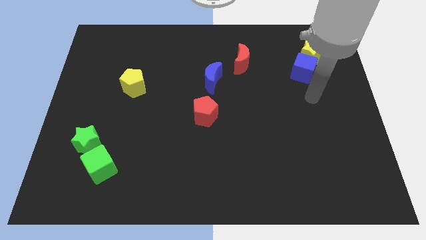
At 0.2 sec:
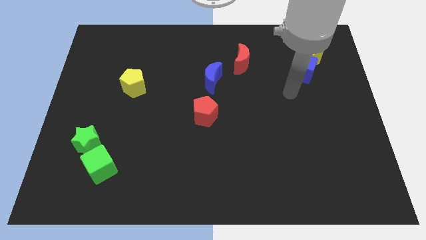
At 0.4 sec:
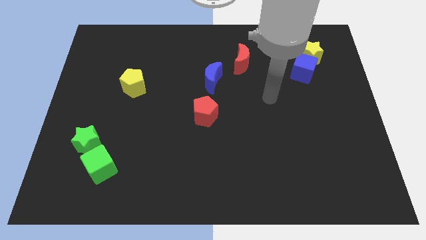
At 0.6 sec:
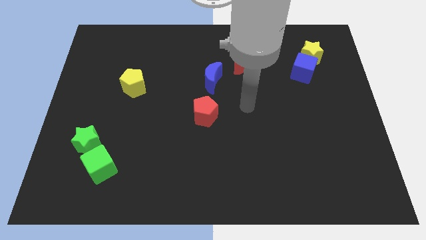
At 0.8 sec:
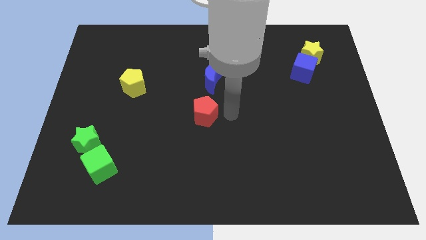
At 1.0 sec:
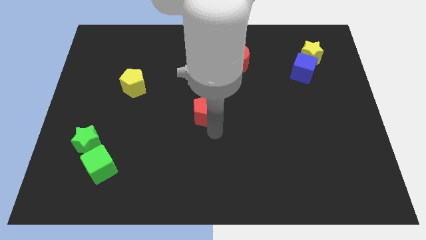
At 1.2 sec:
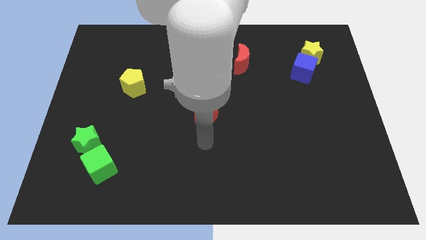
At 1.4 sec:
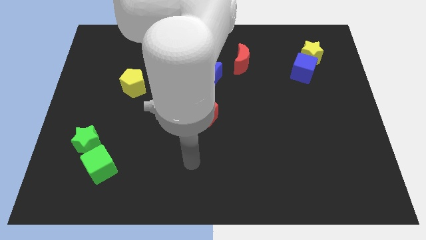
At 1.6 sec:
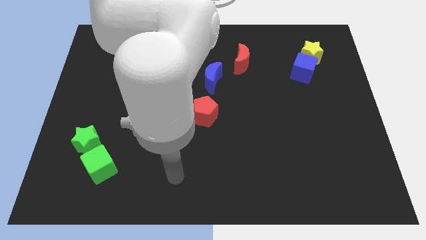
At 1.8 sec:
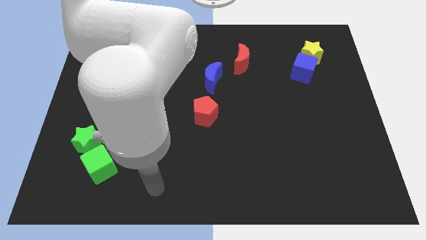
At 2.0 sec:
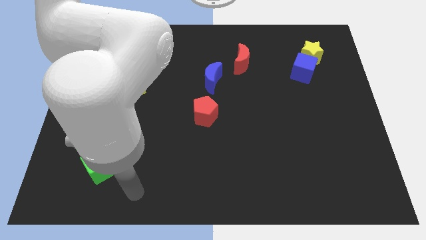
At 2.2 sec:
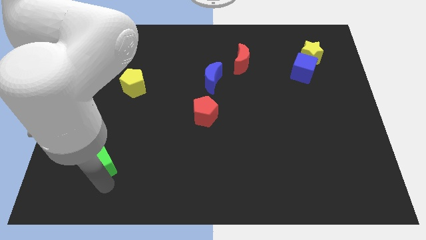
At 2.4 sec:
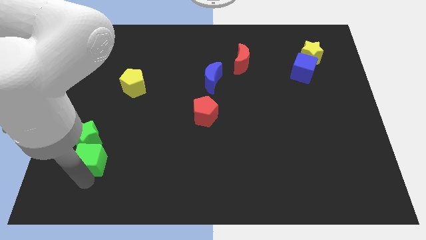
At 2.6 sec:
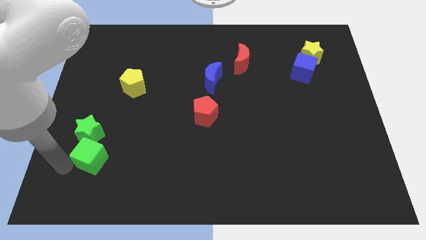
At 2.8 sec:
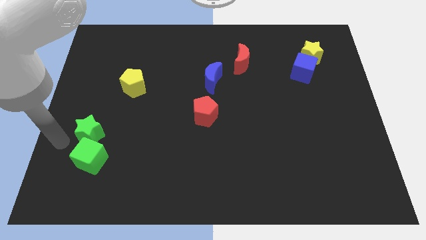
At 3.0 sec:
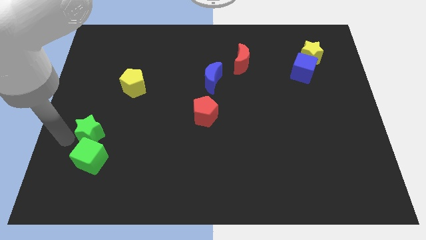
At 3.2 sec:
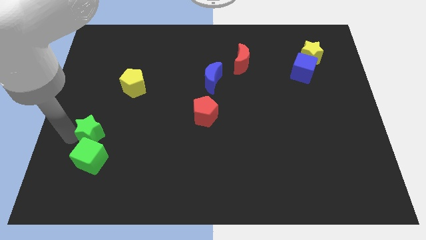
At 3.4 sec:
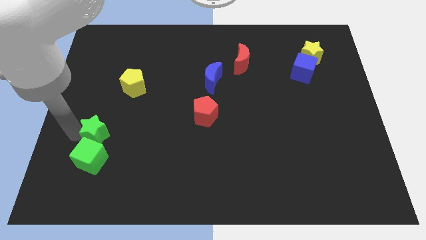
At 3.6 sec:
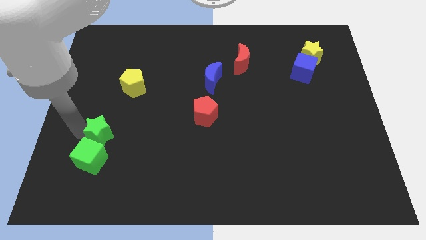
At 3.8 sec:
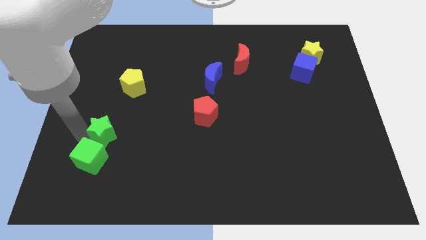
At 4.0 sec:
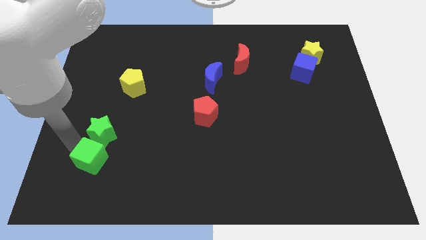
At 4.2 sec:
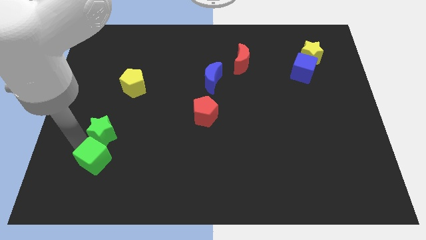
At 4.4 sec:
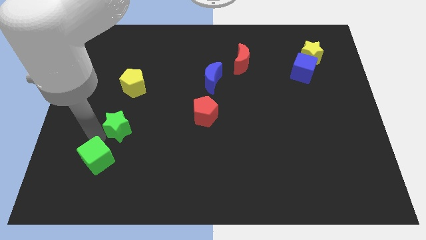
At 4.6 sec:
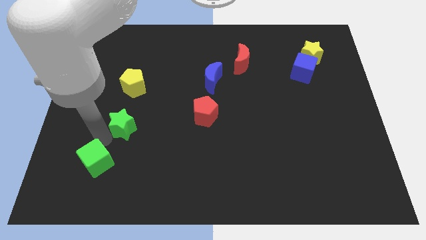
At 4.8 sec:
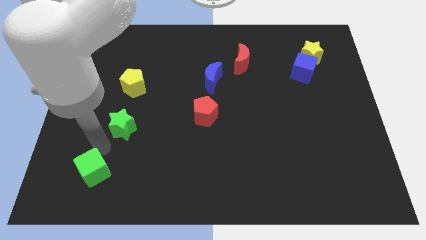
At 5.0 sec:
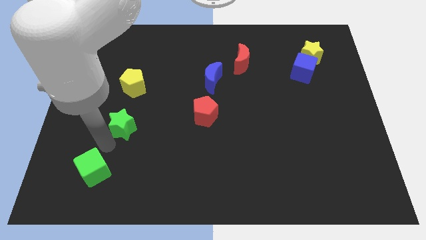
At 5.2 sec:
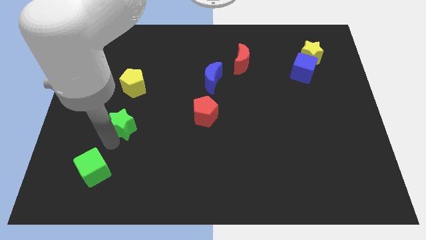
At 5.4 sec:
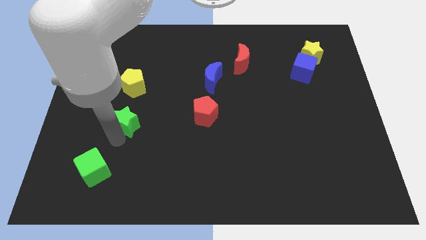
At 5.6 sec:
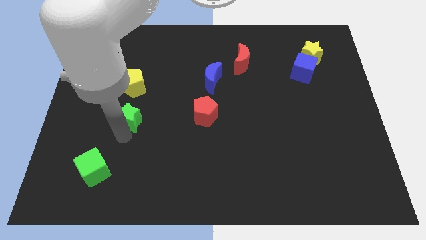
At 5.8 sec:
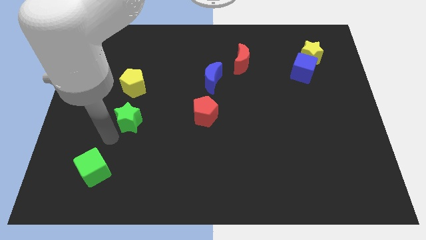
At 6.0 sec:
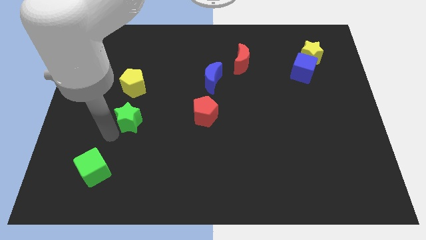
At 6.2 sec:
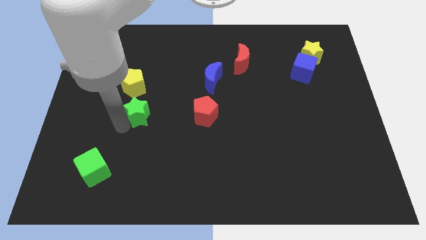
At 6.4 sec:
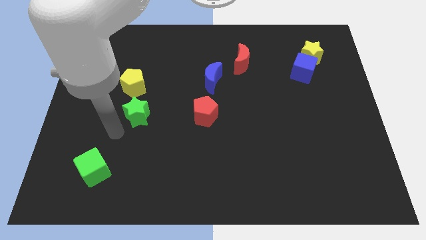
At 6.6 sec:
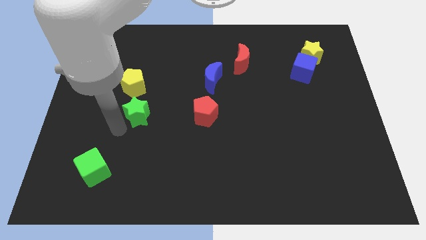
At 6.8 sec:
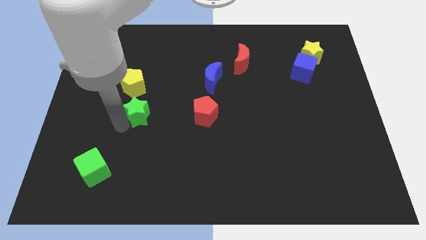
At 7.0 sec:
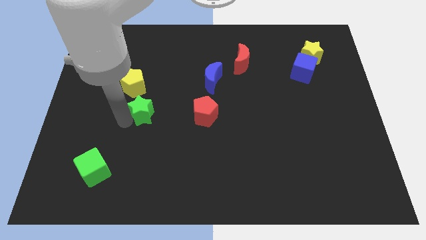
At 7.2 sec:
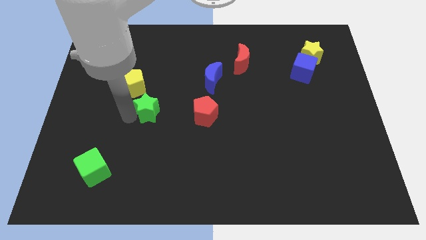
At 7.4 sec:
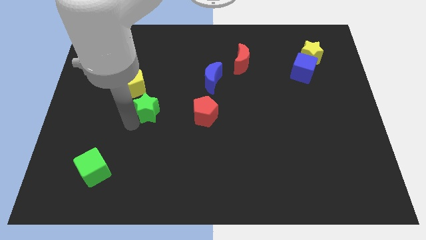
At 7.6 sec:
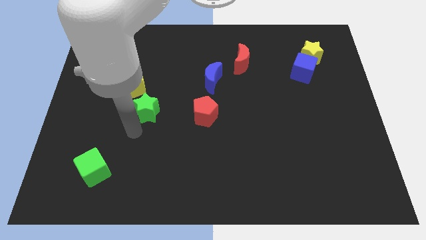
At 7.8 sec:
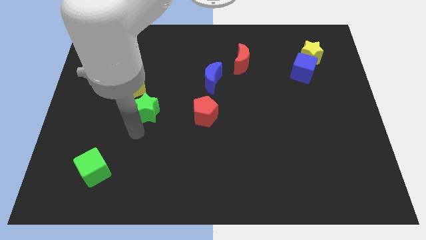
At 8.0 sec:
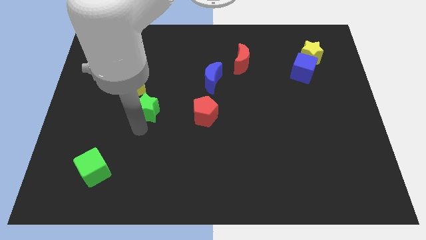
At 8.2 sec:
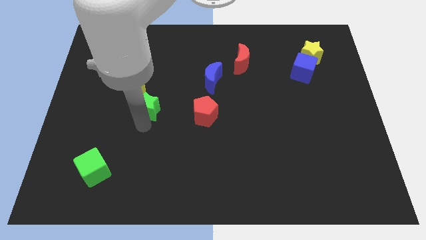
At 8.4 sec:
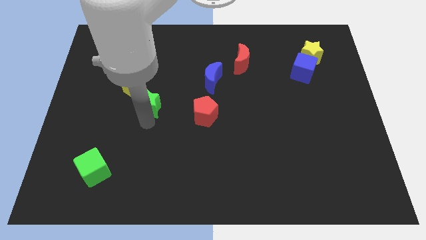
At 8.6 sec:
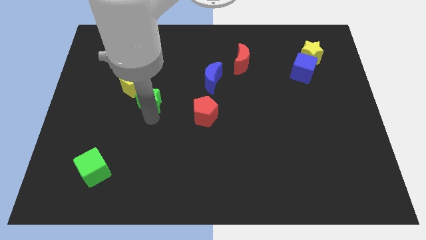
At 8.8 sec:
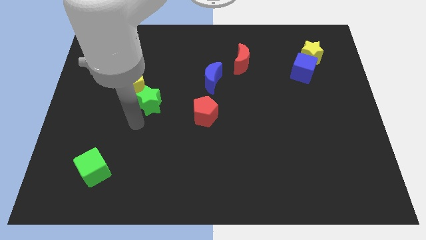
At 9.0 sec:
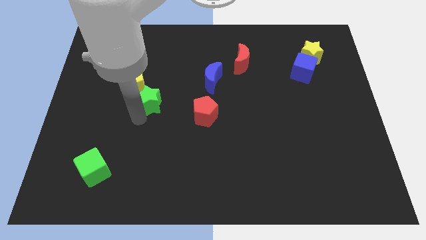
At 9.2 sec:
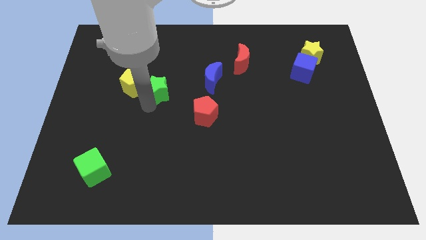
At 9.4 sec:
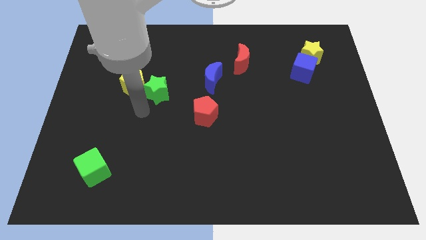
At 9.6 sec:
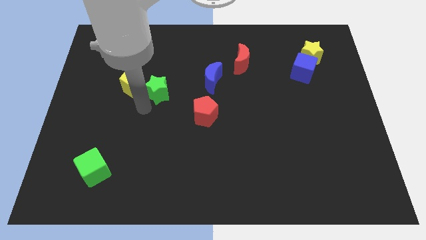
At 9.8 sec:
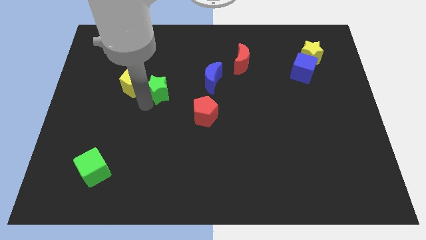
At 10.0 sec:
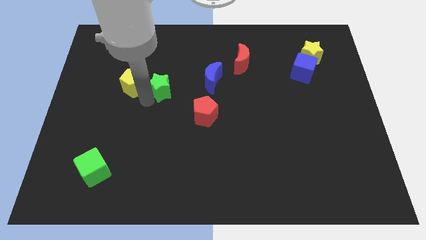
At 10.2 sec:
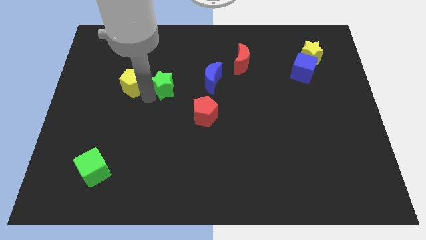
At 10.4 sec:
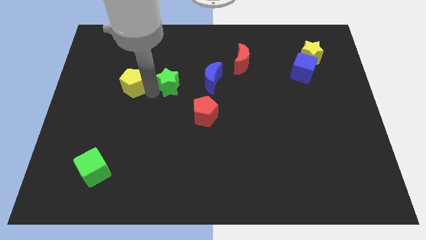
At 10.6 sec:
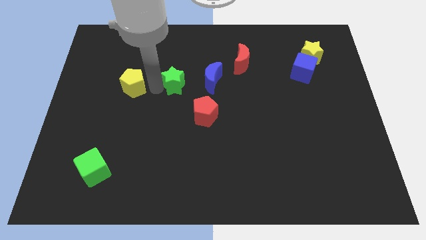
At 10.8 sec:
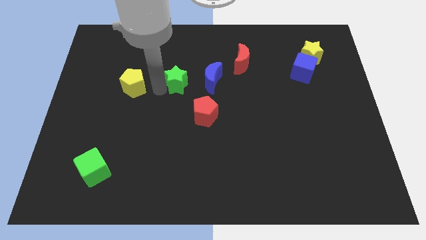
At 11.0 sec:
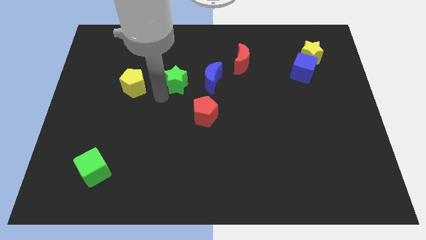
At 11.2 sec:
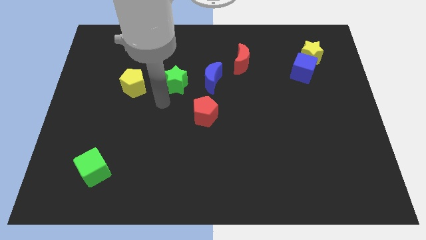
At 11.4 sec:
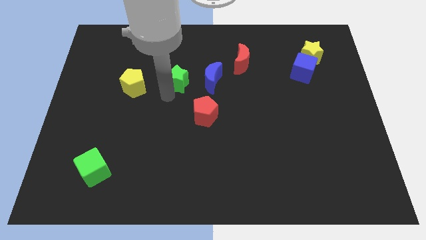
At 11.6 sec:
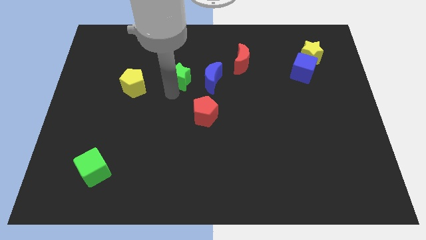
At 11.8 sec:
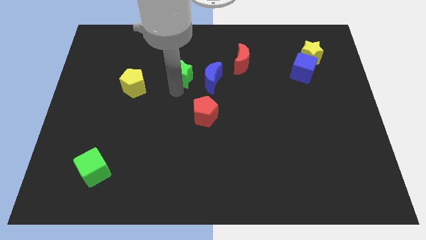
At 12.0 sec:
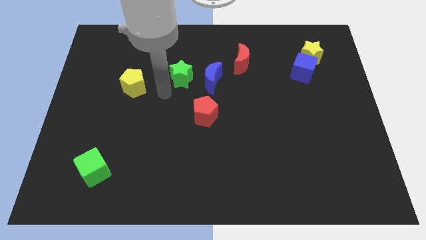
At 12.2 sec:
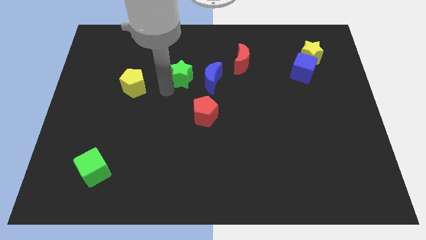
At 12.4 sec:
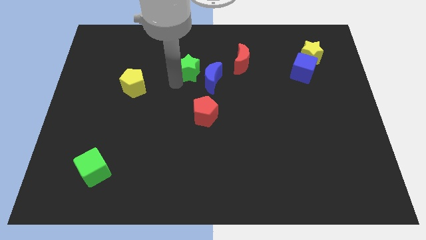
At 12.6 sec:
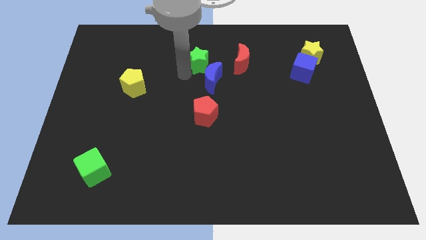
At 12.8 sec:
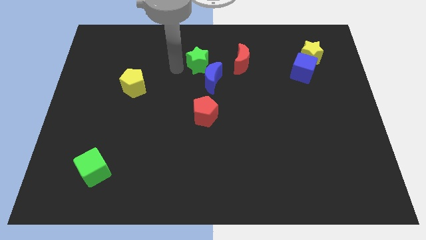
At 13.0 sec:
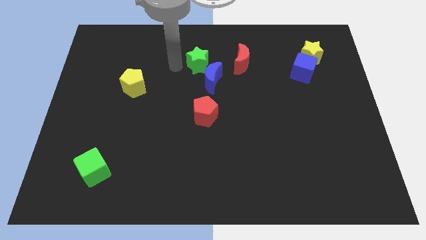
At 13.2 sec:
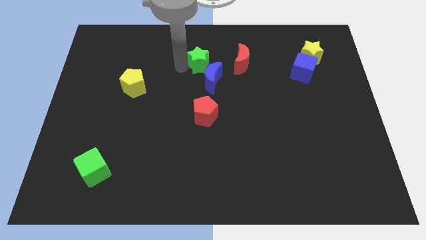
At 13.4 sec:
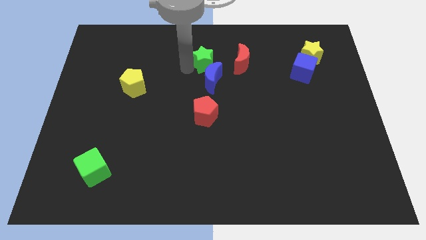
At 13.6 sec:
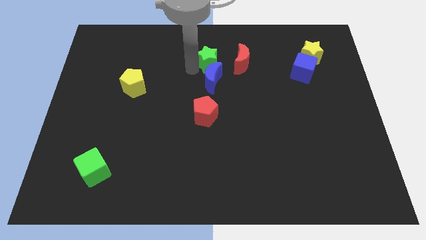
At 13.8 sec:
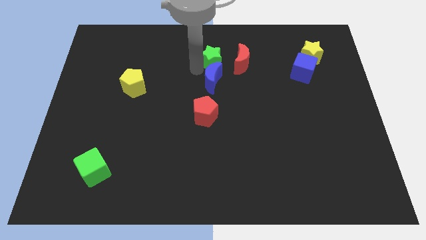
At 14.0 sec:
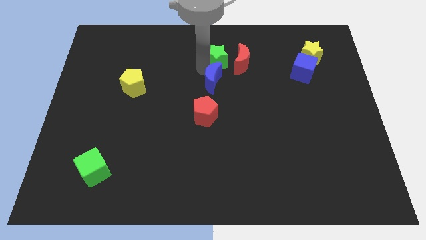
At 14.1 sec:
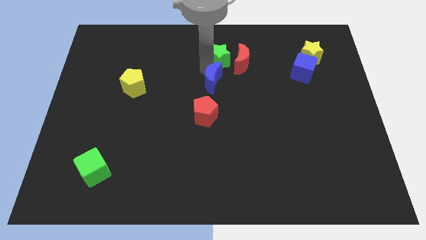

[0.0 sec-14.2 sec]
move the green star to the red moon
